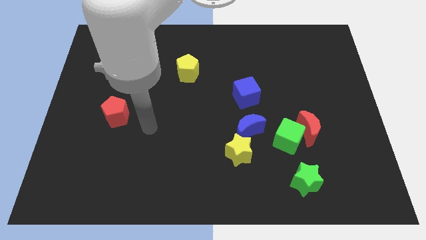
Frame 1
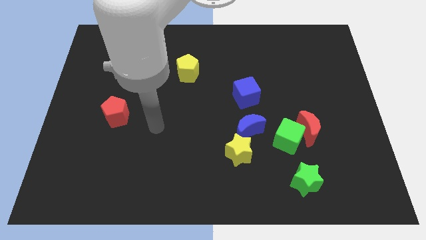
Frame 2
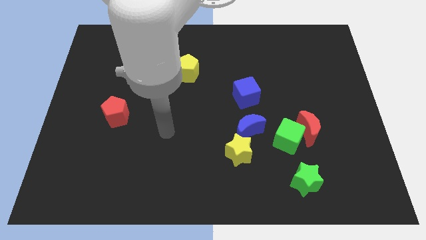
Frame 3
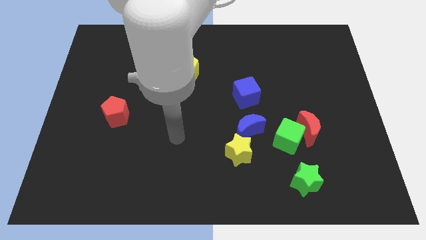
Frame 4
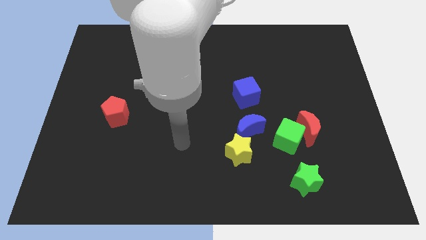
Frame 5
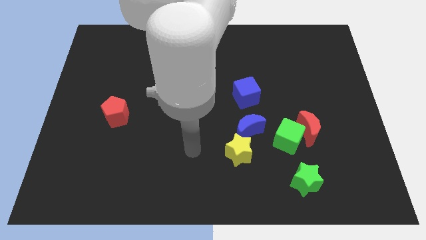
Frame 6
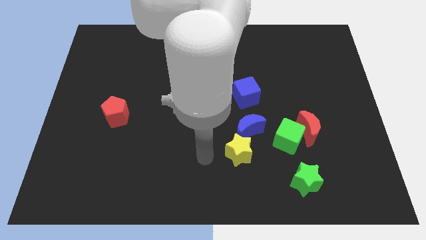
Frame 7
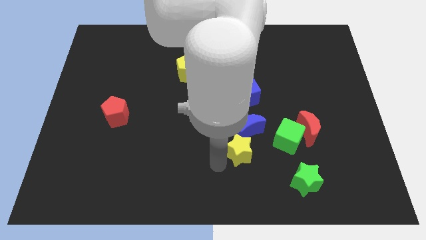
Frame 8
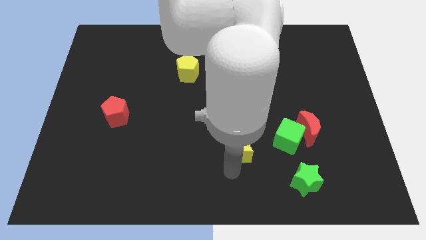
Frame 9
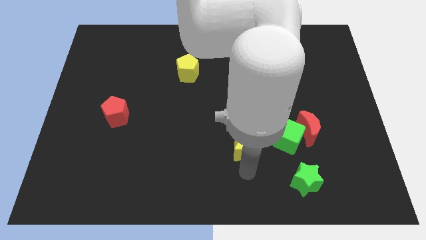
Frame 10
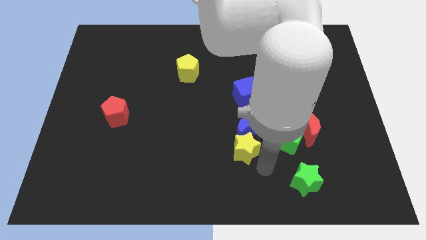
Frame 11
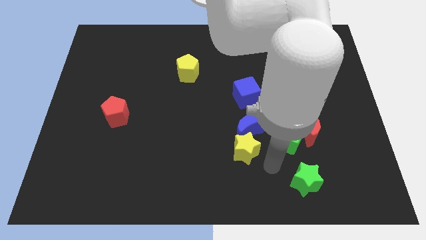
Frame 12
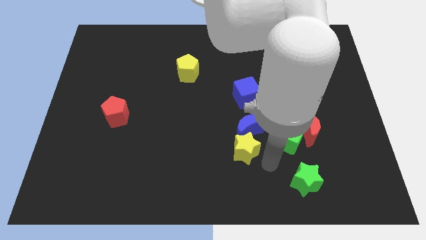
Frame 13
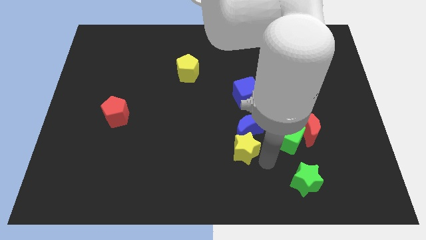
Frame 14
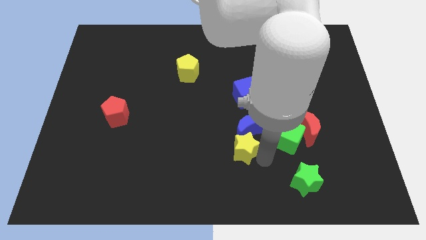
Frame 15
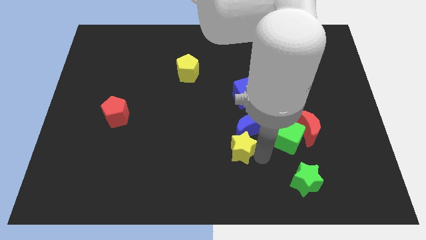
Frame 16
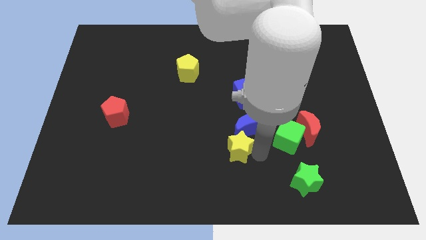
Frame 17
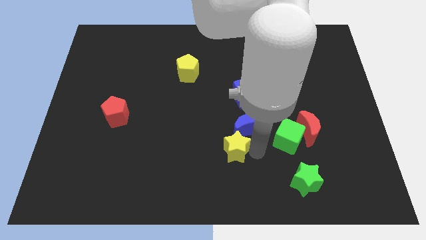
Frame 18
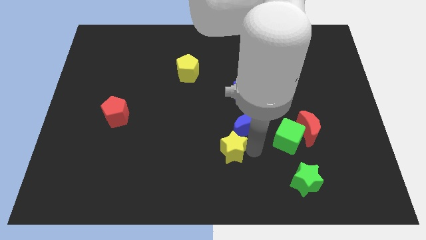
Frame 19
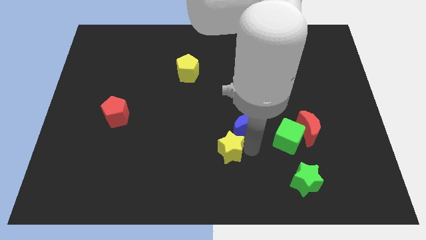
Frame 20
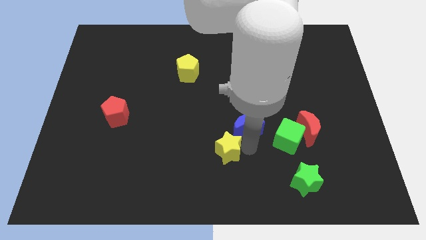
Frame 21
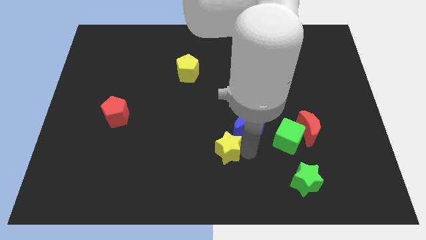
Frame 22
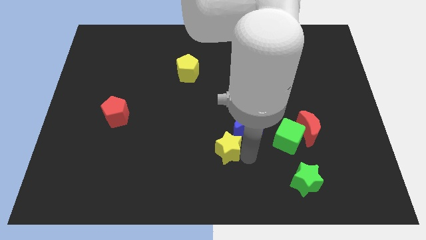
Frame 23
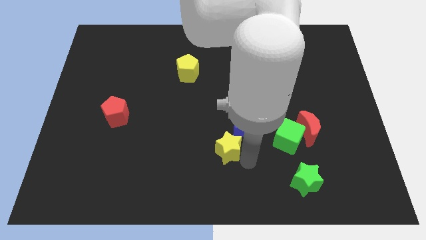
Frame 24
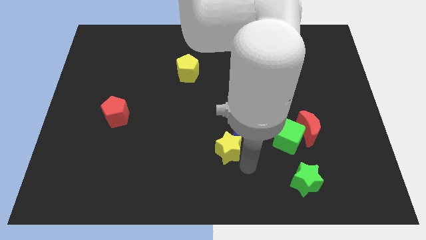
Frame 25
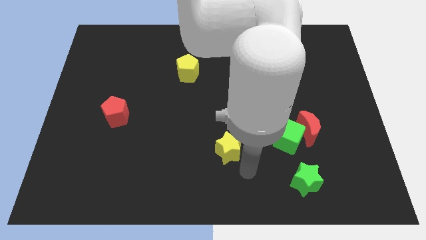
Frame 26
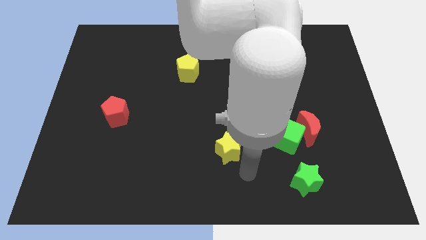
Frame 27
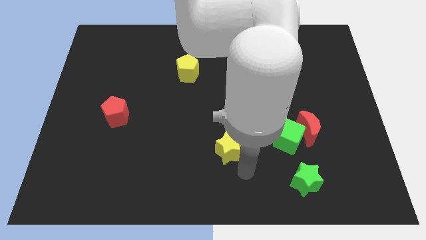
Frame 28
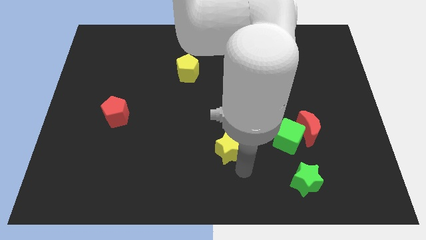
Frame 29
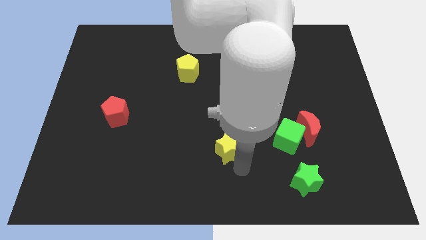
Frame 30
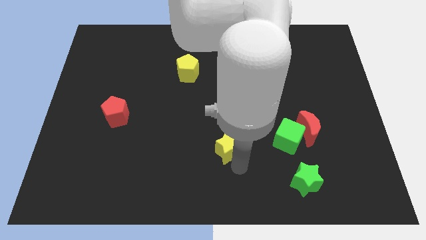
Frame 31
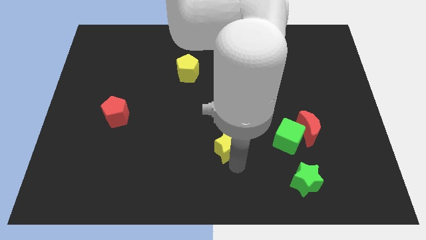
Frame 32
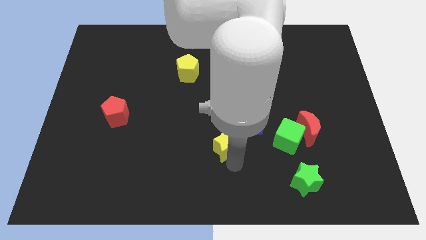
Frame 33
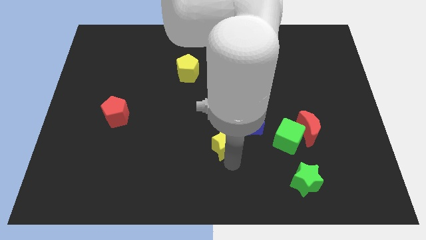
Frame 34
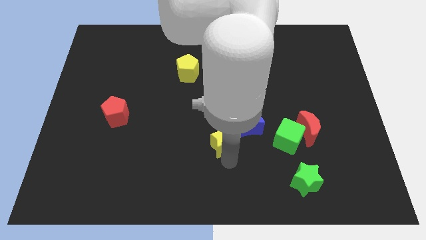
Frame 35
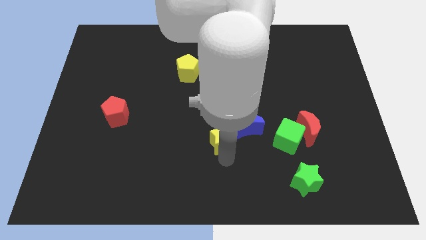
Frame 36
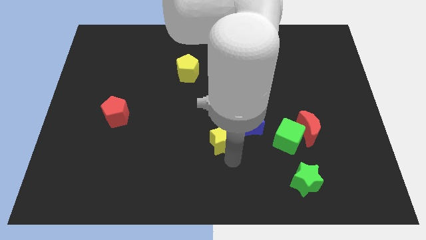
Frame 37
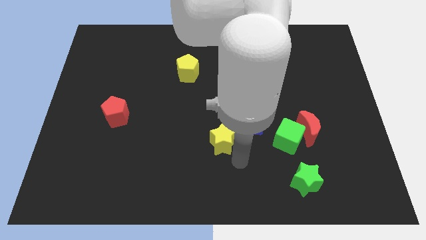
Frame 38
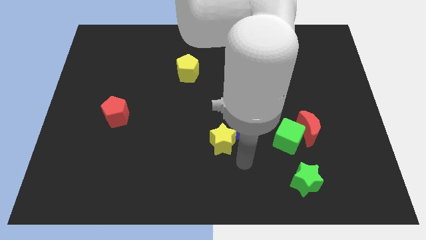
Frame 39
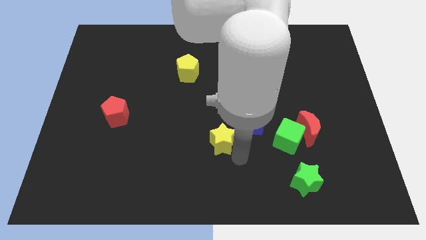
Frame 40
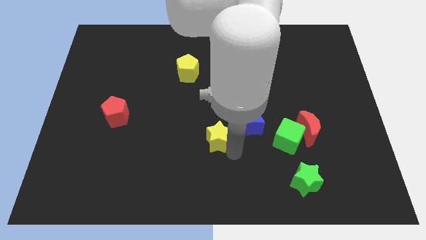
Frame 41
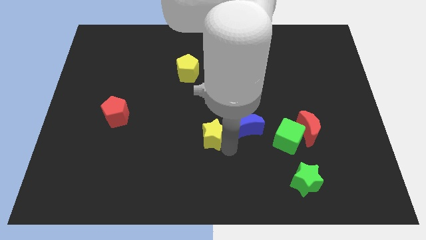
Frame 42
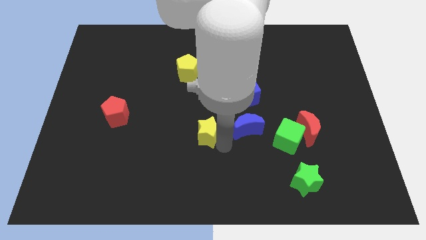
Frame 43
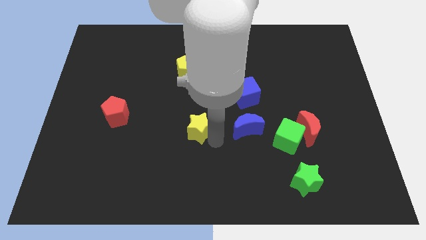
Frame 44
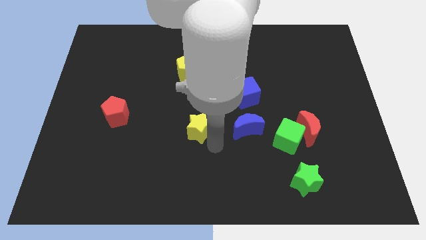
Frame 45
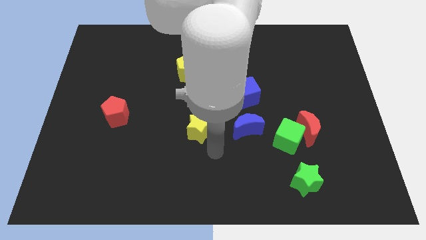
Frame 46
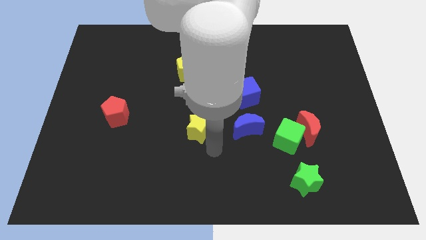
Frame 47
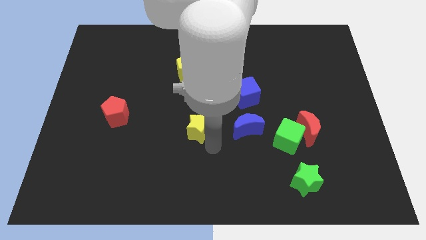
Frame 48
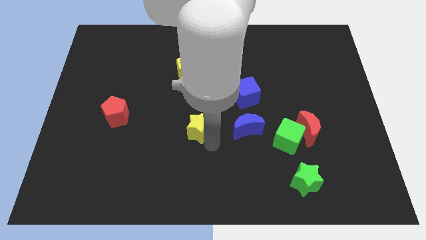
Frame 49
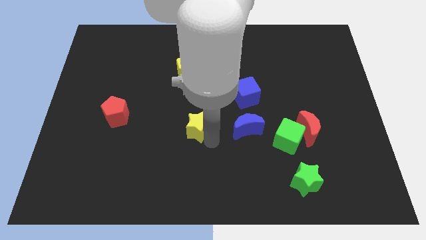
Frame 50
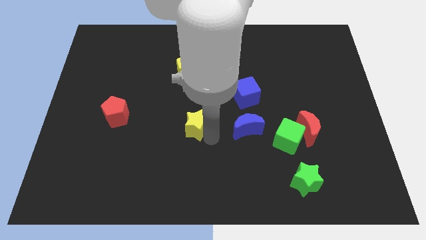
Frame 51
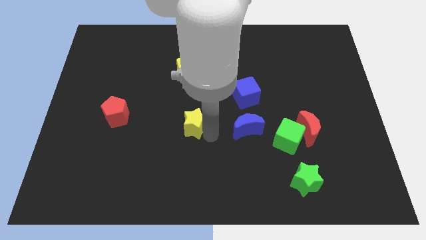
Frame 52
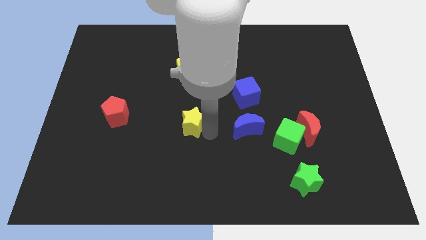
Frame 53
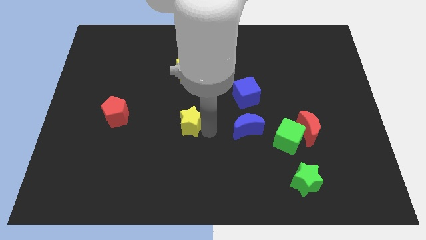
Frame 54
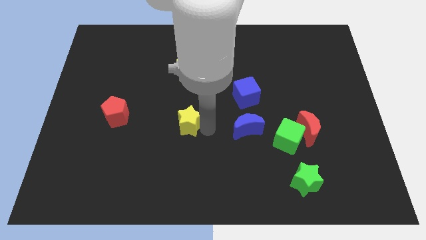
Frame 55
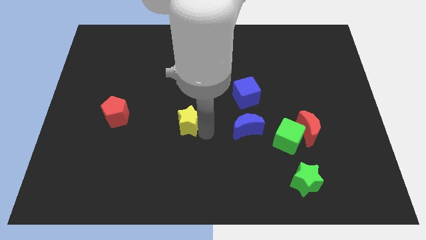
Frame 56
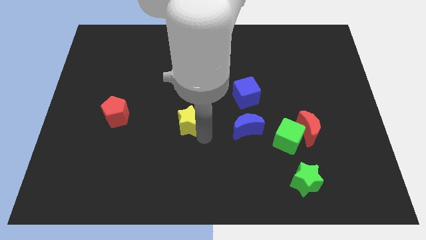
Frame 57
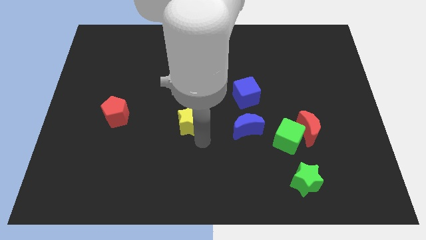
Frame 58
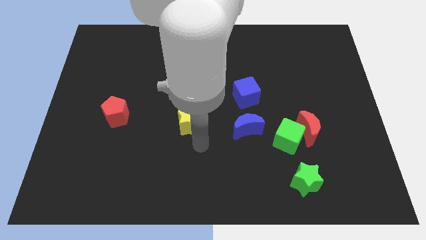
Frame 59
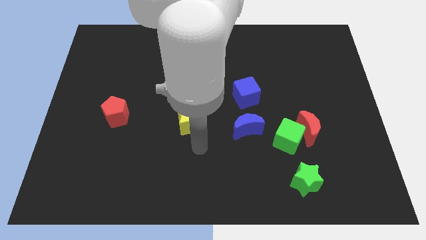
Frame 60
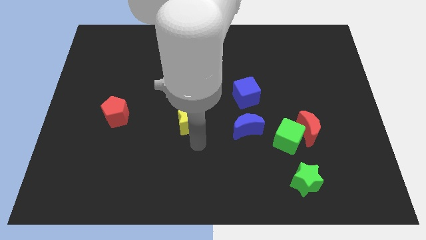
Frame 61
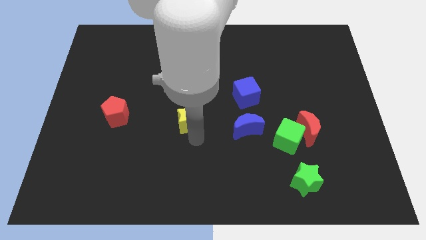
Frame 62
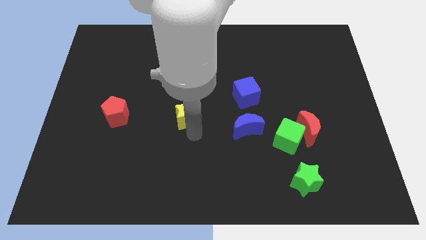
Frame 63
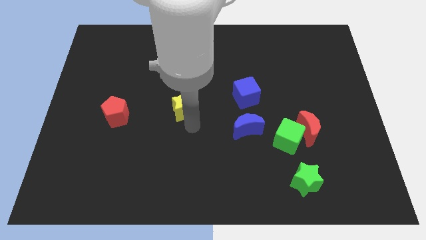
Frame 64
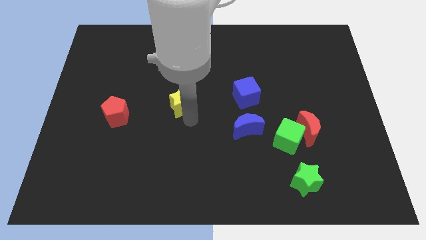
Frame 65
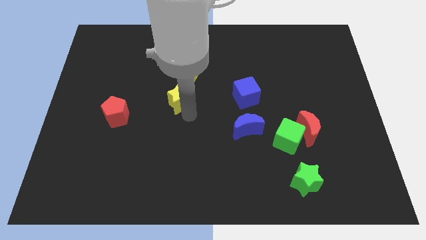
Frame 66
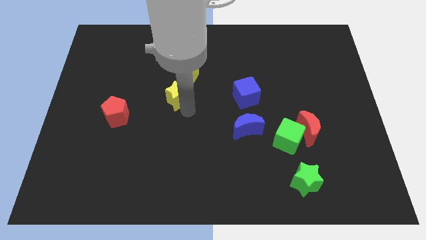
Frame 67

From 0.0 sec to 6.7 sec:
push the yellow star upwards and to the left diagonally

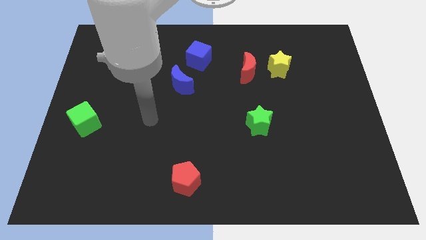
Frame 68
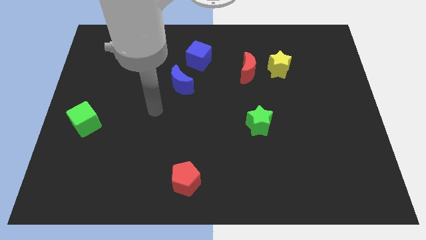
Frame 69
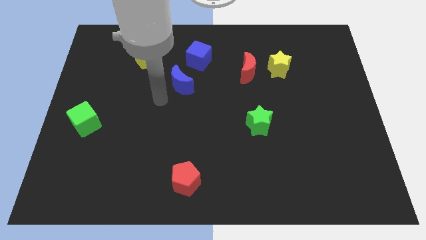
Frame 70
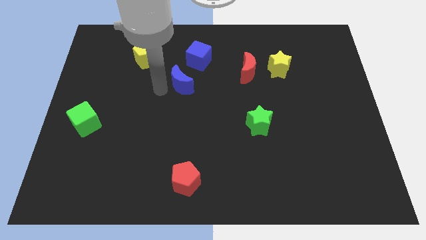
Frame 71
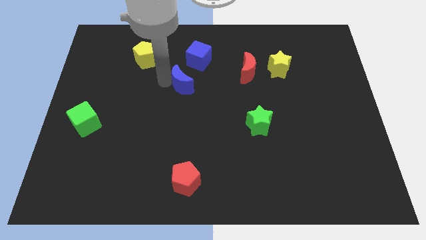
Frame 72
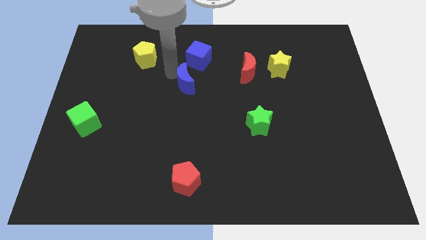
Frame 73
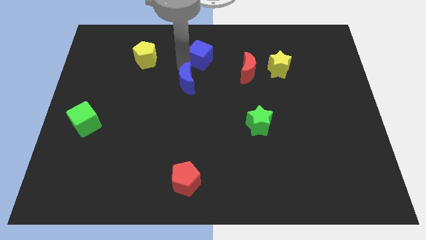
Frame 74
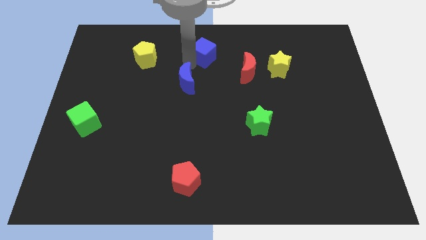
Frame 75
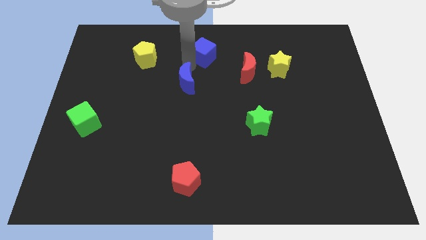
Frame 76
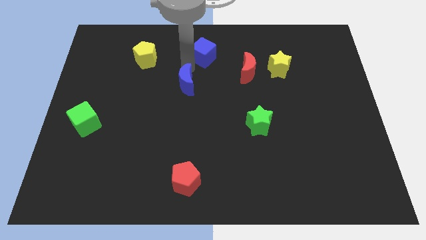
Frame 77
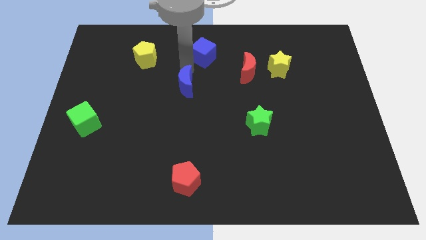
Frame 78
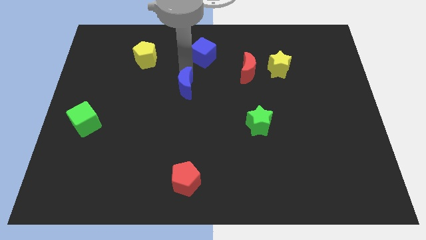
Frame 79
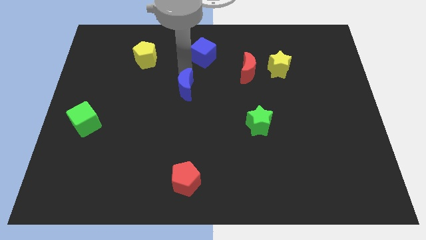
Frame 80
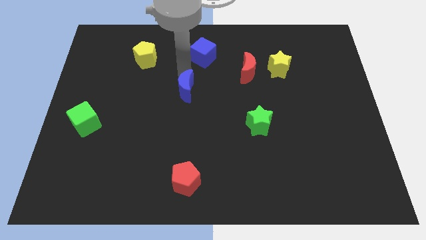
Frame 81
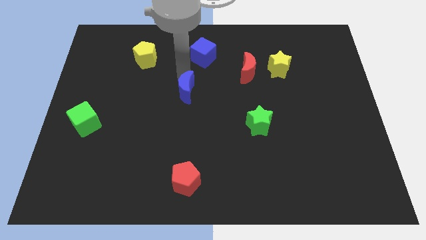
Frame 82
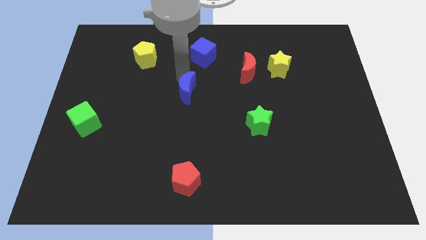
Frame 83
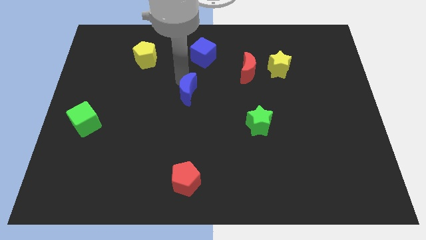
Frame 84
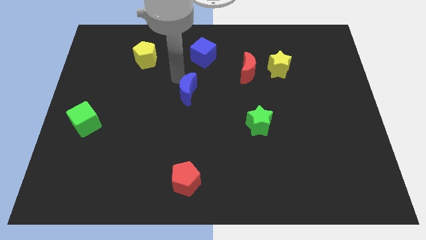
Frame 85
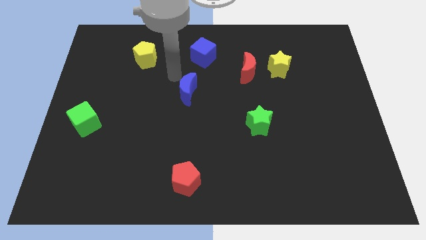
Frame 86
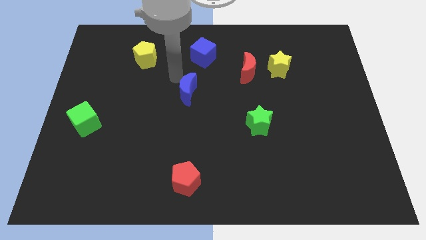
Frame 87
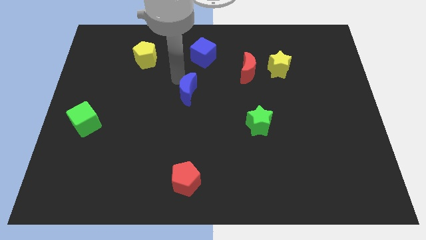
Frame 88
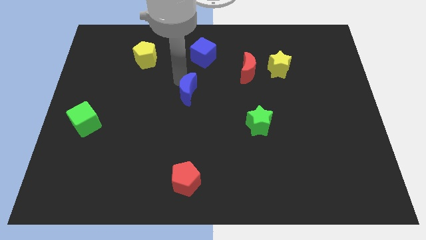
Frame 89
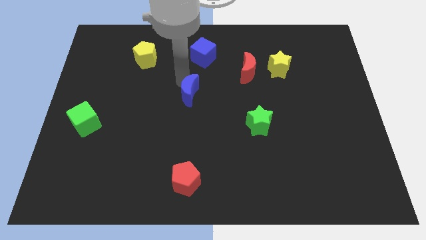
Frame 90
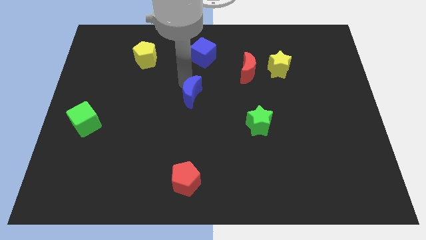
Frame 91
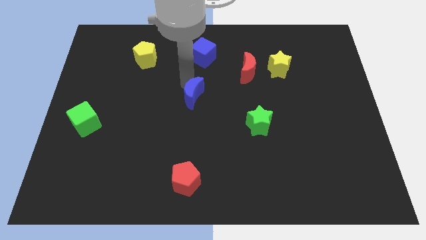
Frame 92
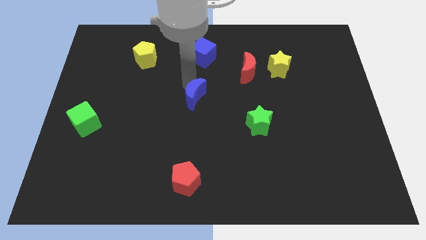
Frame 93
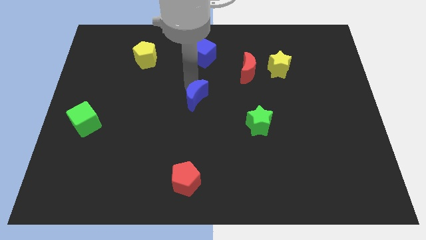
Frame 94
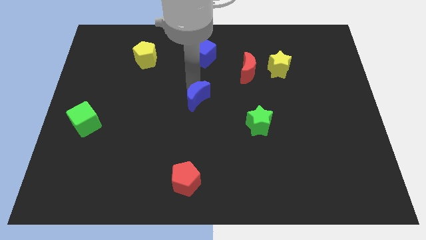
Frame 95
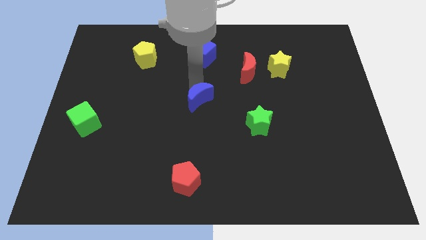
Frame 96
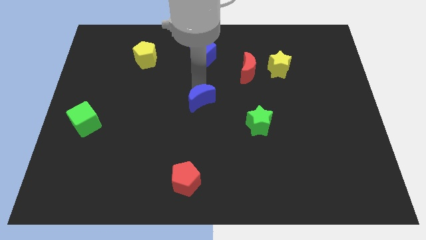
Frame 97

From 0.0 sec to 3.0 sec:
slide the blue moon downwards and right slightly
